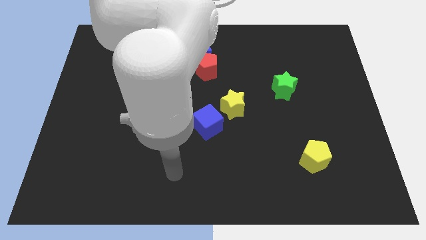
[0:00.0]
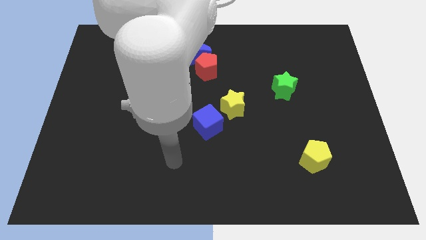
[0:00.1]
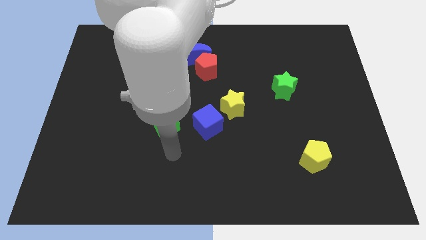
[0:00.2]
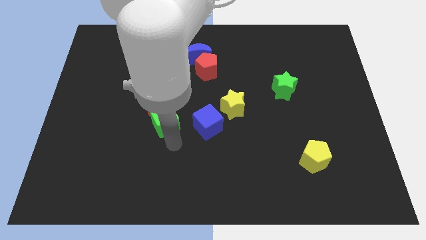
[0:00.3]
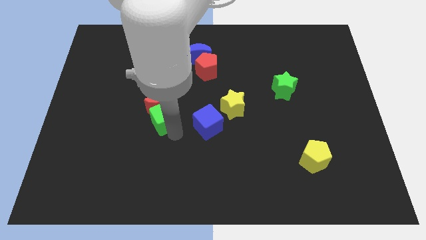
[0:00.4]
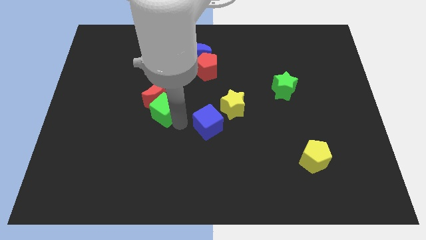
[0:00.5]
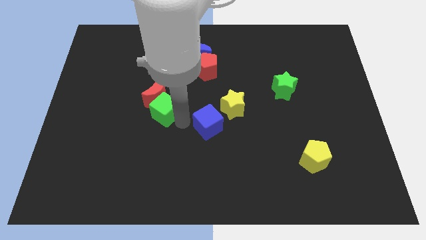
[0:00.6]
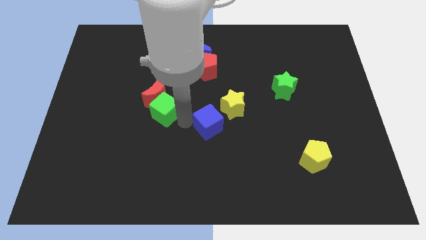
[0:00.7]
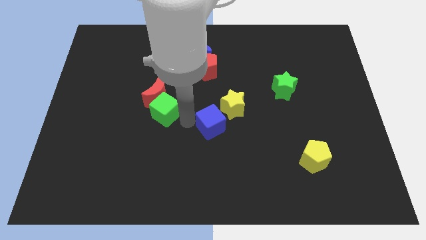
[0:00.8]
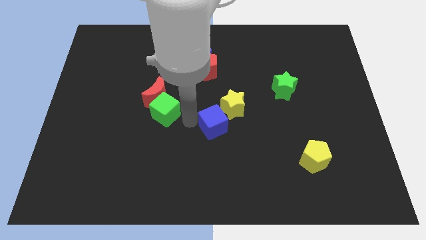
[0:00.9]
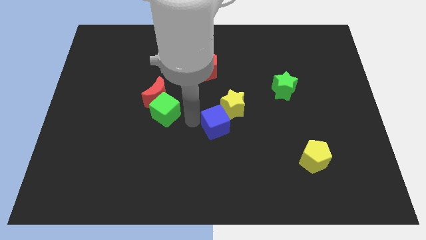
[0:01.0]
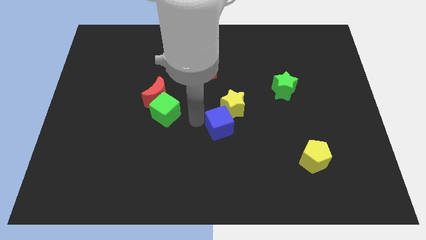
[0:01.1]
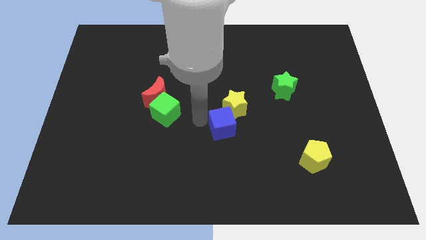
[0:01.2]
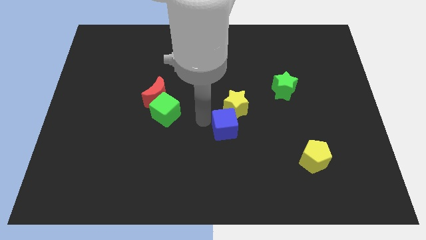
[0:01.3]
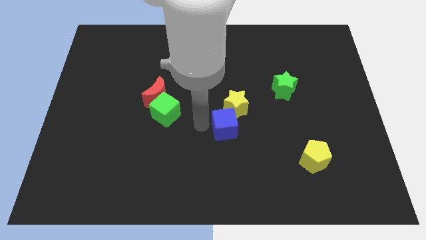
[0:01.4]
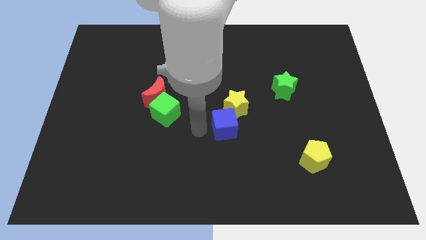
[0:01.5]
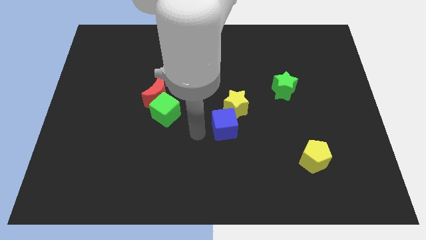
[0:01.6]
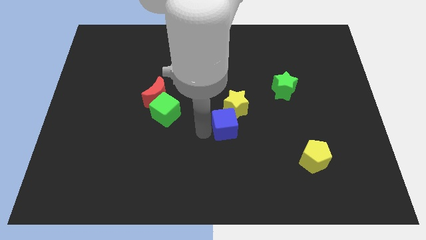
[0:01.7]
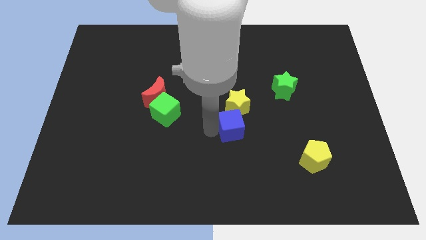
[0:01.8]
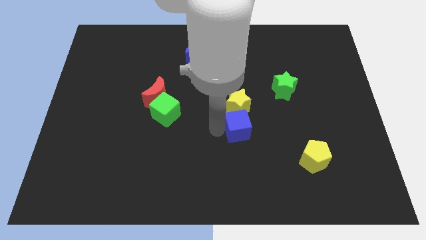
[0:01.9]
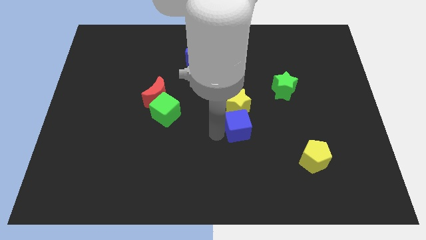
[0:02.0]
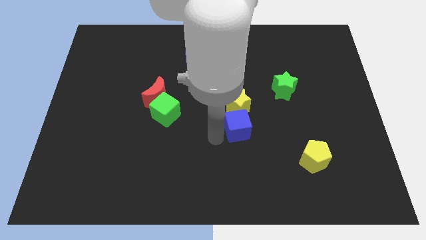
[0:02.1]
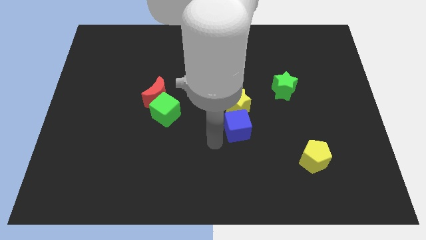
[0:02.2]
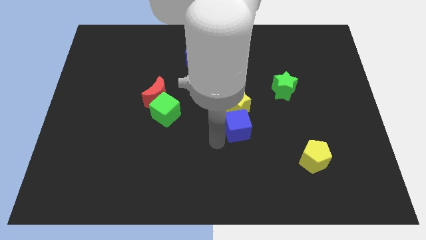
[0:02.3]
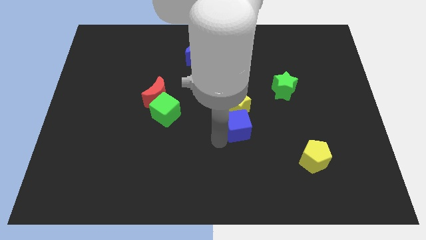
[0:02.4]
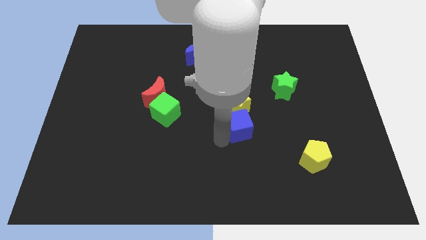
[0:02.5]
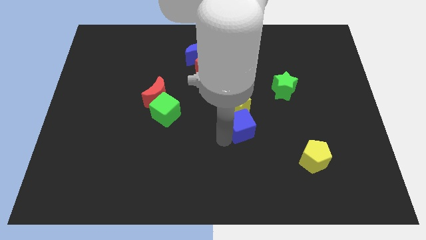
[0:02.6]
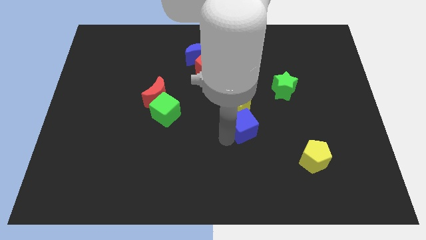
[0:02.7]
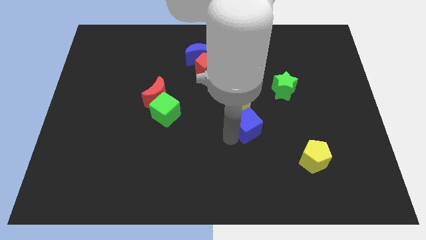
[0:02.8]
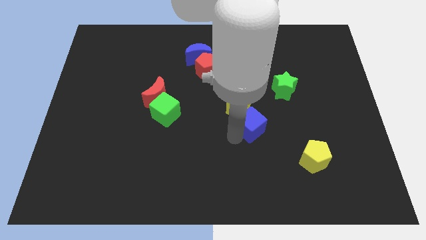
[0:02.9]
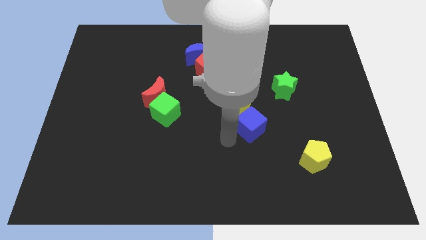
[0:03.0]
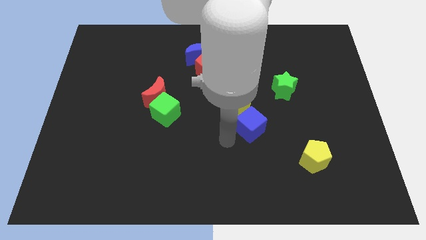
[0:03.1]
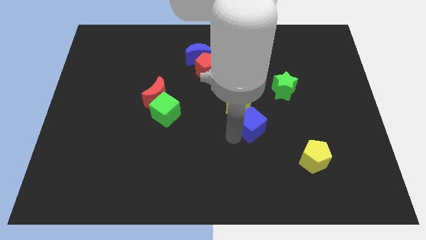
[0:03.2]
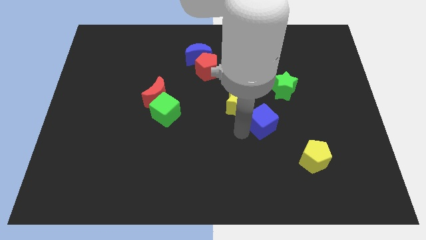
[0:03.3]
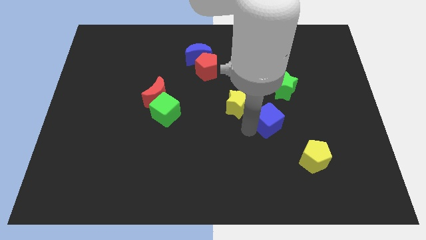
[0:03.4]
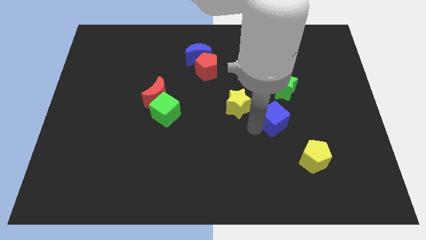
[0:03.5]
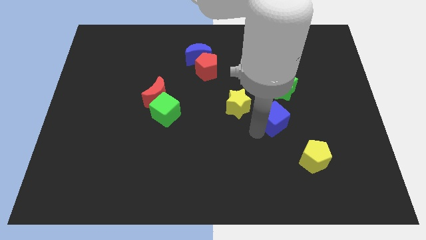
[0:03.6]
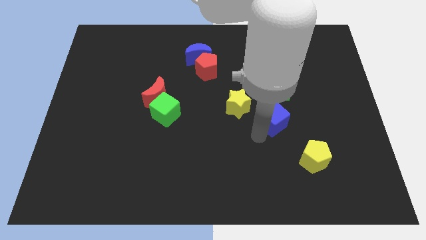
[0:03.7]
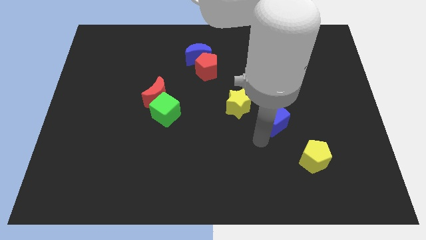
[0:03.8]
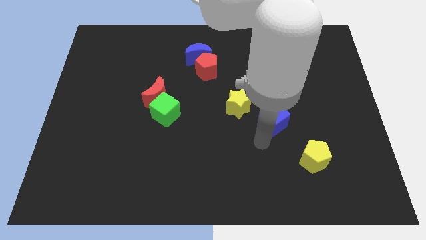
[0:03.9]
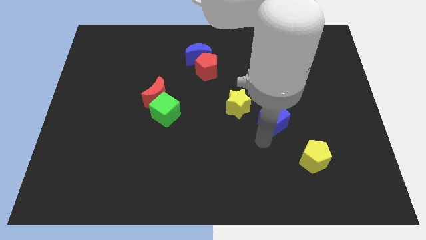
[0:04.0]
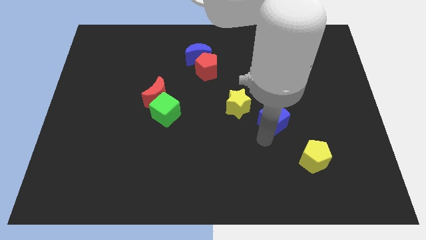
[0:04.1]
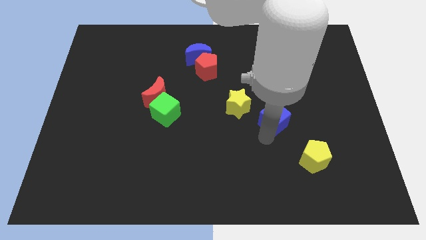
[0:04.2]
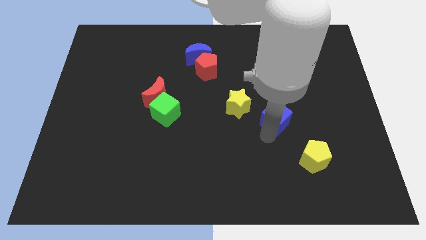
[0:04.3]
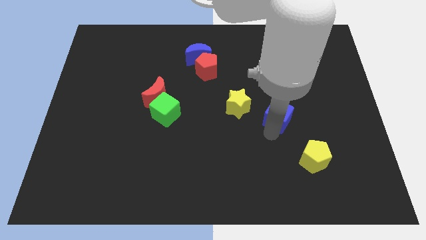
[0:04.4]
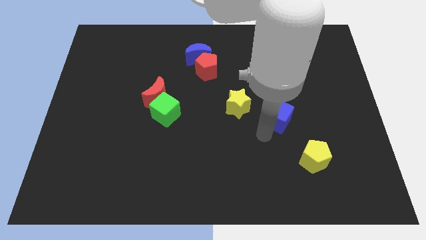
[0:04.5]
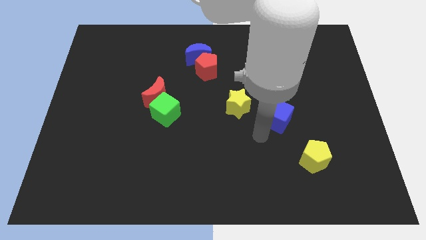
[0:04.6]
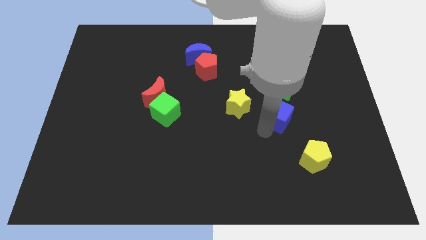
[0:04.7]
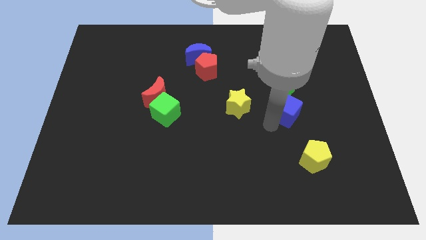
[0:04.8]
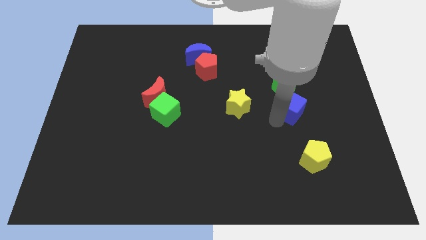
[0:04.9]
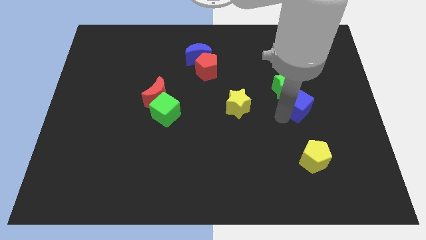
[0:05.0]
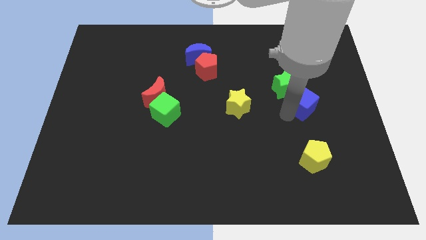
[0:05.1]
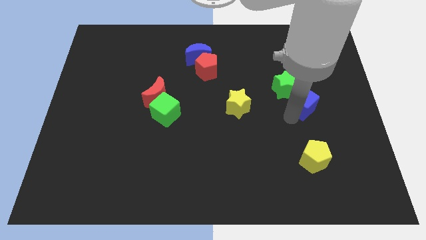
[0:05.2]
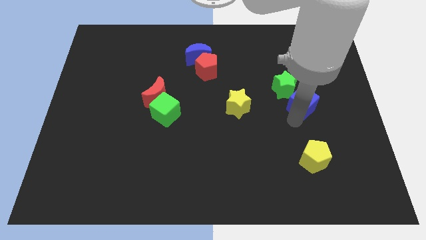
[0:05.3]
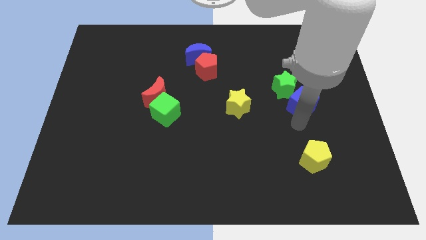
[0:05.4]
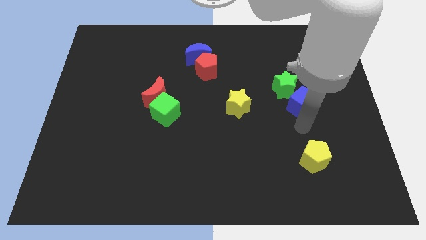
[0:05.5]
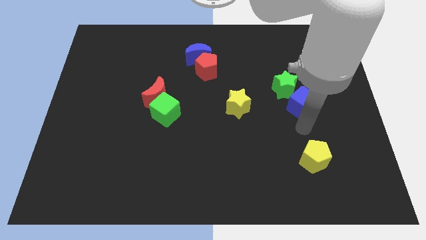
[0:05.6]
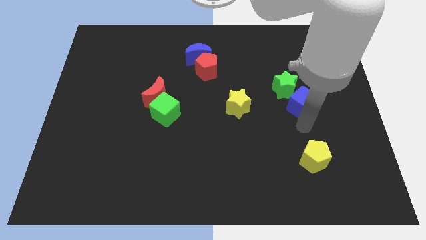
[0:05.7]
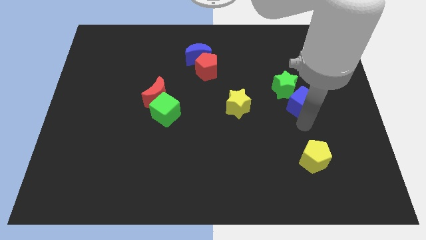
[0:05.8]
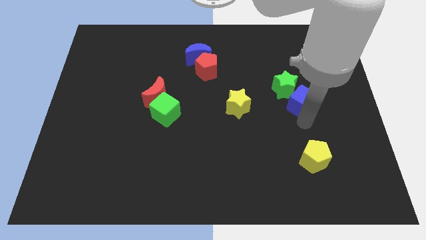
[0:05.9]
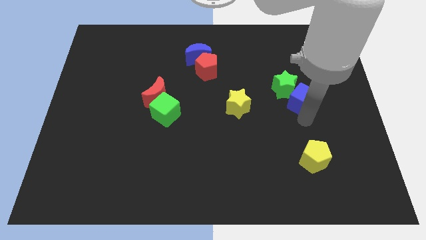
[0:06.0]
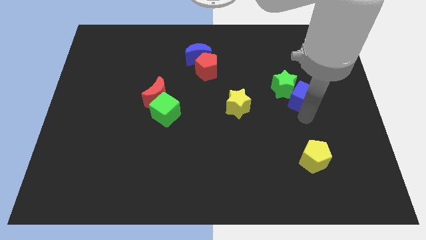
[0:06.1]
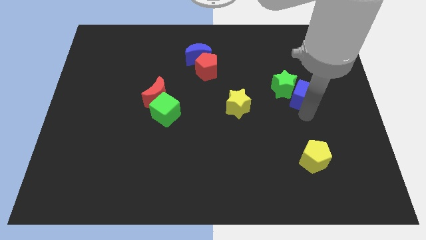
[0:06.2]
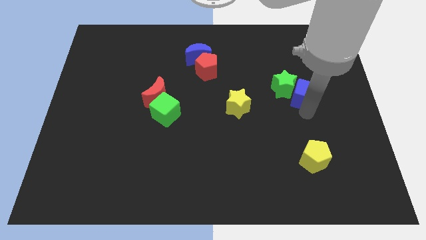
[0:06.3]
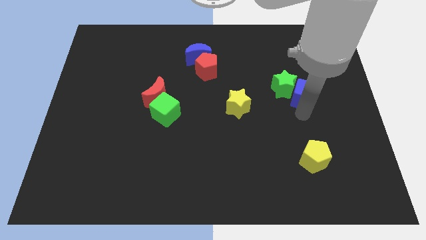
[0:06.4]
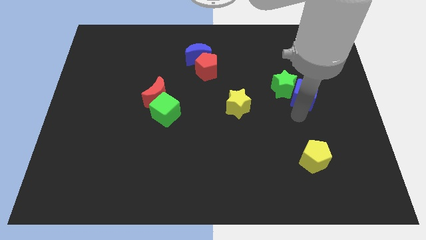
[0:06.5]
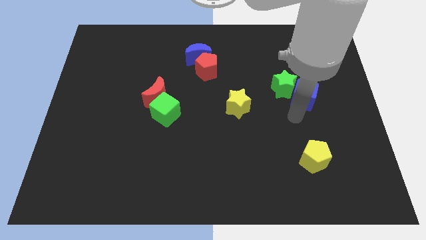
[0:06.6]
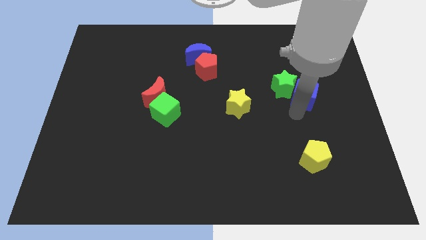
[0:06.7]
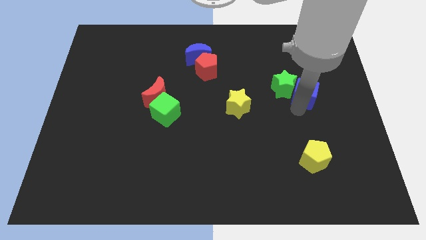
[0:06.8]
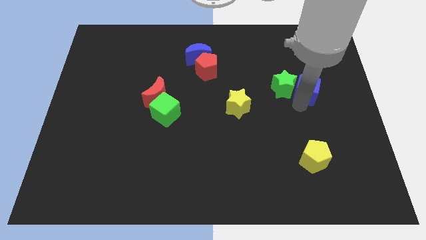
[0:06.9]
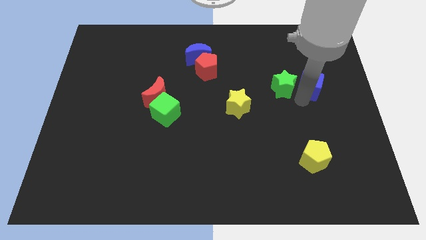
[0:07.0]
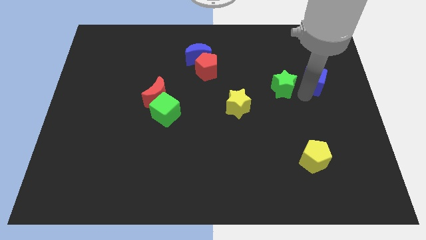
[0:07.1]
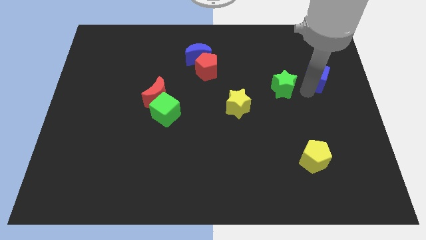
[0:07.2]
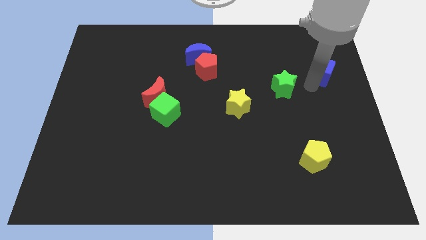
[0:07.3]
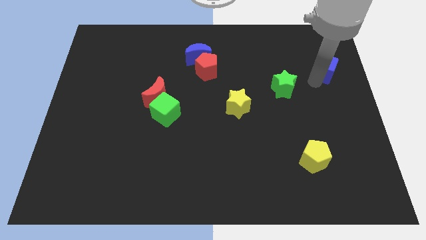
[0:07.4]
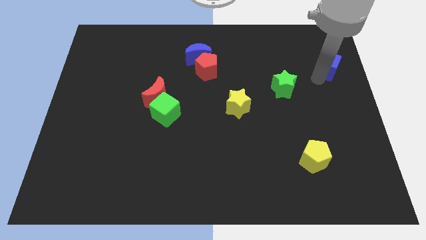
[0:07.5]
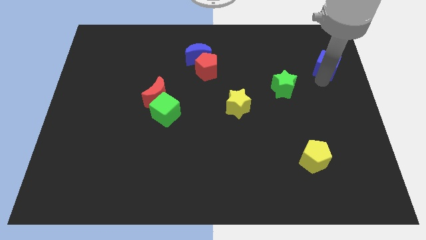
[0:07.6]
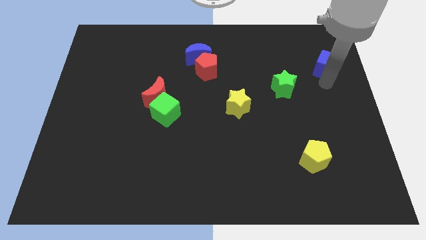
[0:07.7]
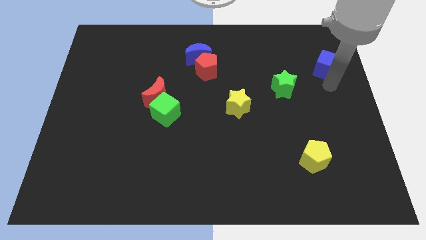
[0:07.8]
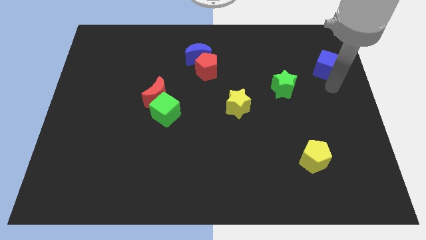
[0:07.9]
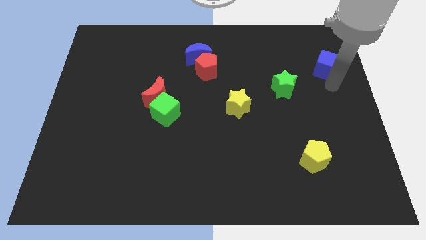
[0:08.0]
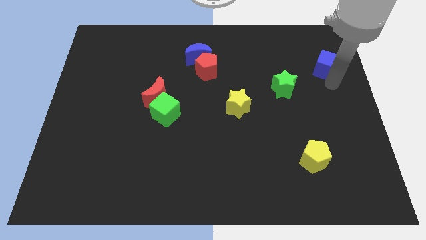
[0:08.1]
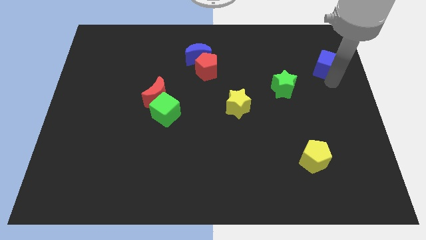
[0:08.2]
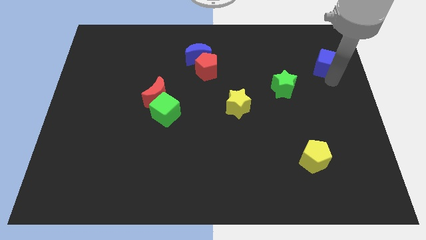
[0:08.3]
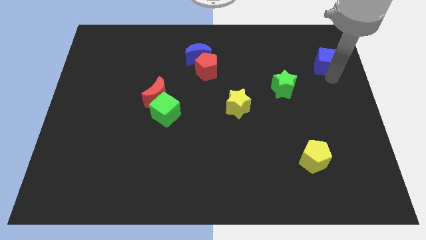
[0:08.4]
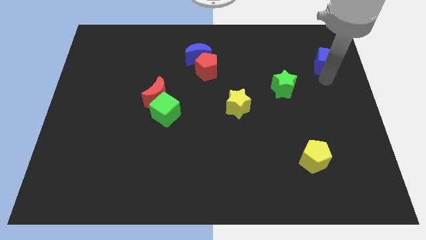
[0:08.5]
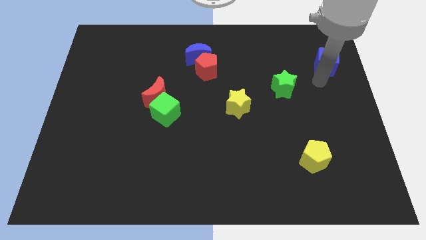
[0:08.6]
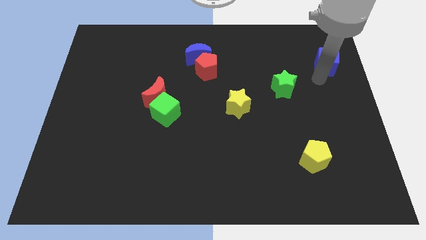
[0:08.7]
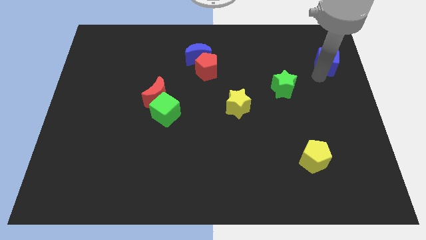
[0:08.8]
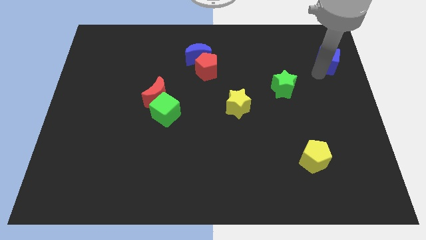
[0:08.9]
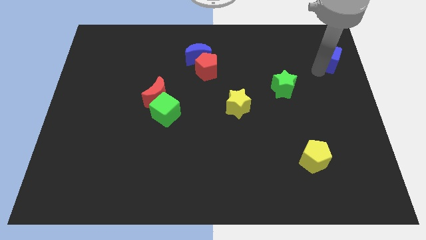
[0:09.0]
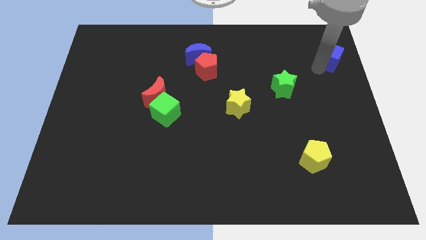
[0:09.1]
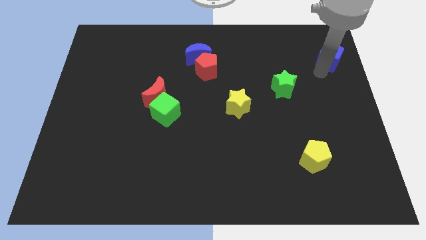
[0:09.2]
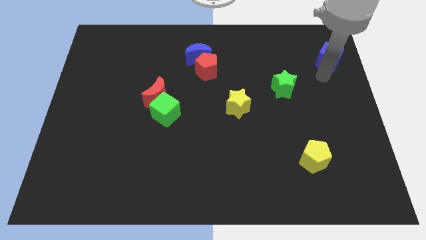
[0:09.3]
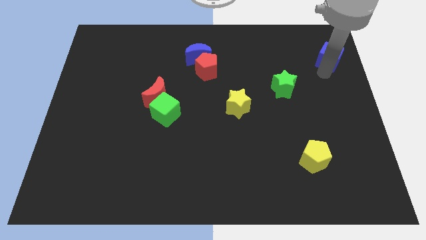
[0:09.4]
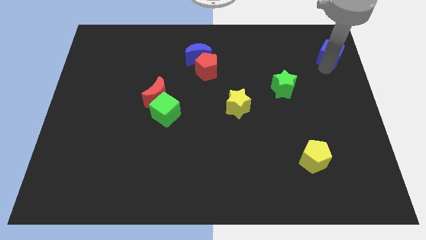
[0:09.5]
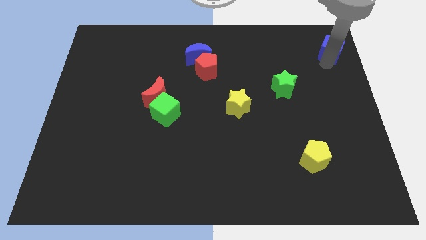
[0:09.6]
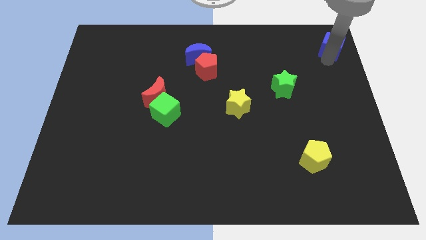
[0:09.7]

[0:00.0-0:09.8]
push the blue cube to the upper right corner
